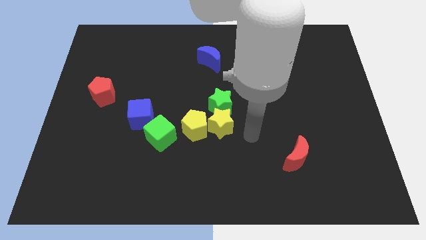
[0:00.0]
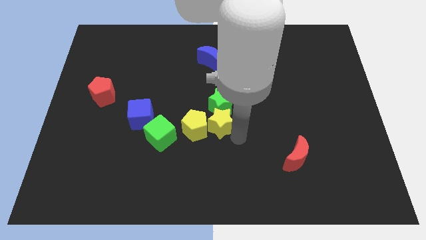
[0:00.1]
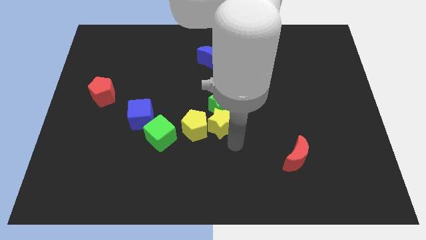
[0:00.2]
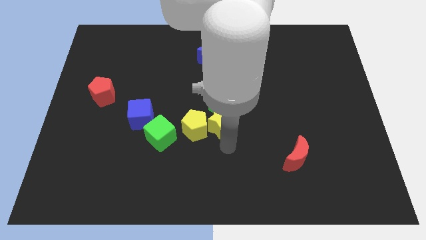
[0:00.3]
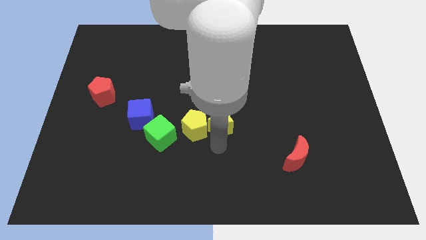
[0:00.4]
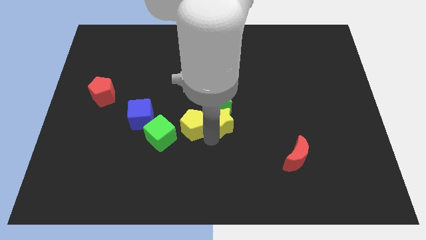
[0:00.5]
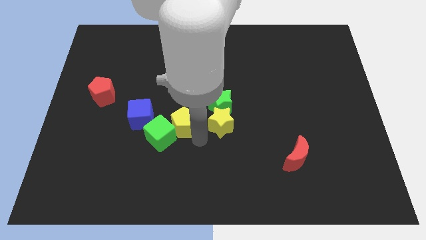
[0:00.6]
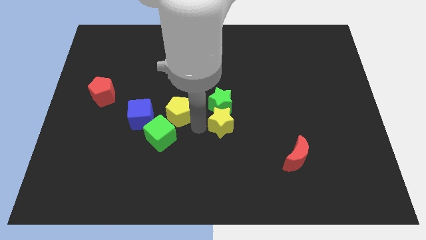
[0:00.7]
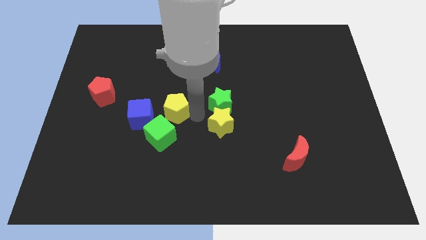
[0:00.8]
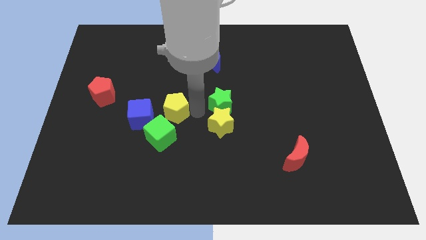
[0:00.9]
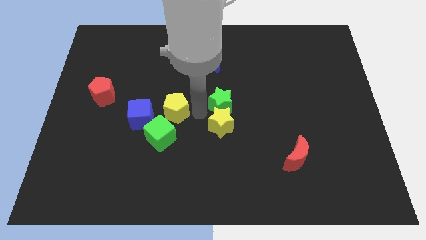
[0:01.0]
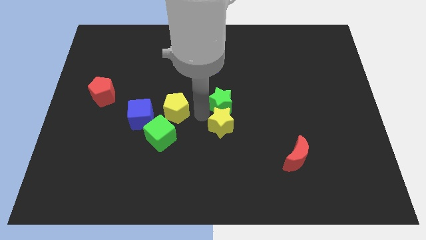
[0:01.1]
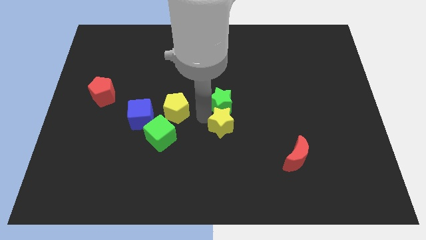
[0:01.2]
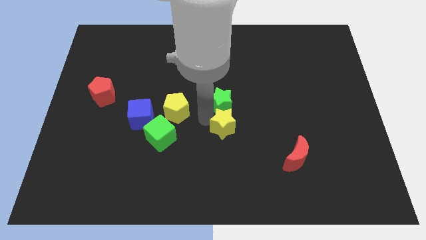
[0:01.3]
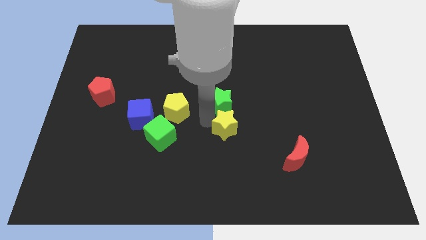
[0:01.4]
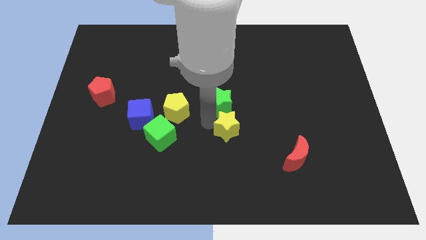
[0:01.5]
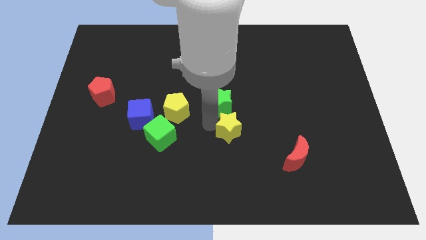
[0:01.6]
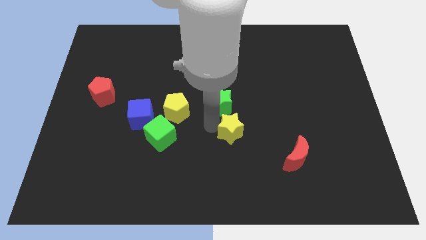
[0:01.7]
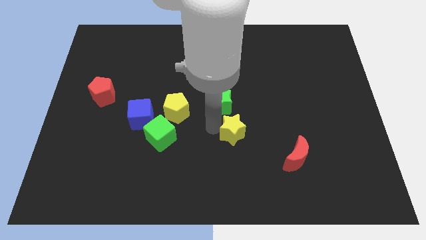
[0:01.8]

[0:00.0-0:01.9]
move the yellow star away from the green star and yellow pentagon

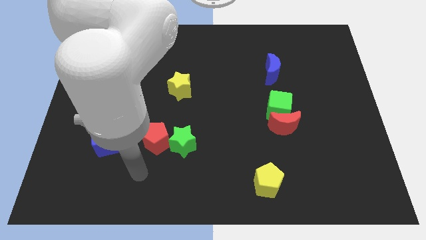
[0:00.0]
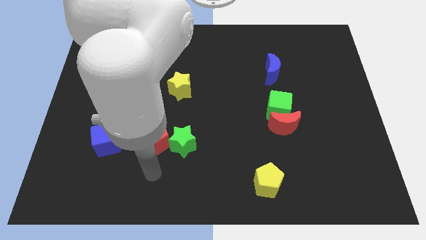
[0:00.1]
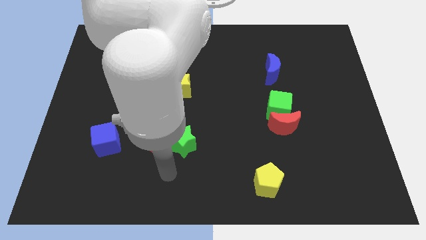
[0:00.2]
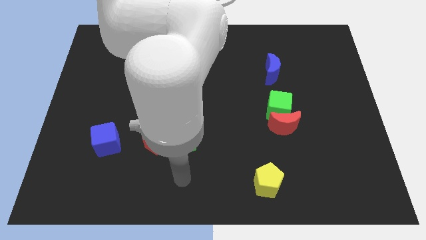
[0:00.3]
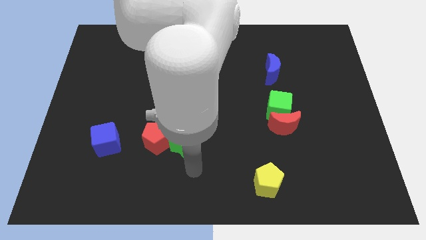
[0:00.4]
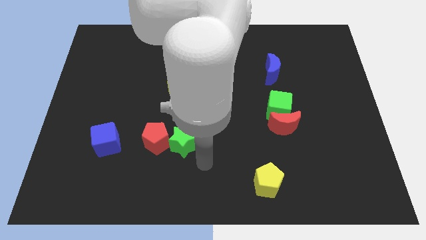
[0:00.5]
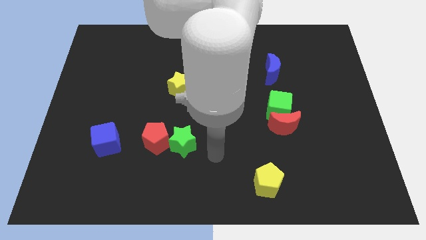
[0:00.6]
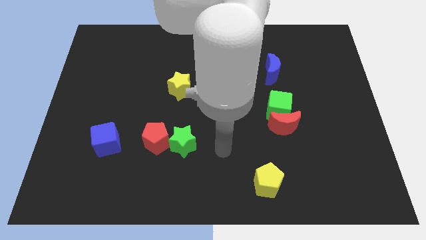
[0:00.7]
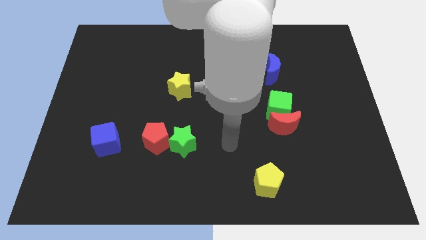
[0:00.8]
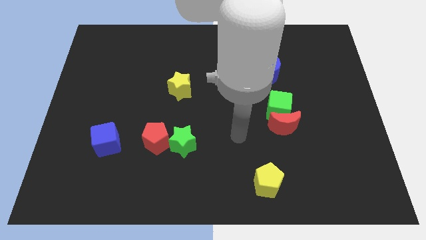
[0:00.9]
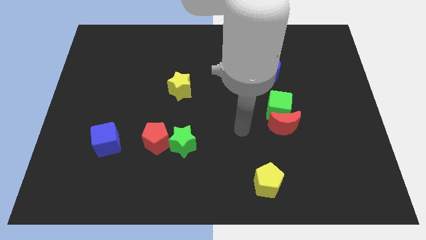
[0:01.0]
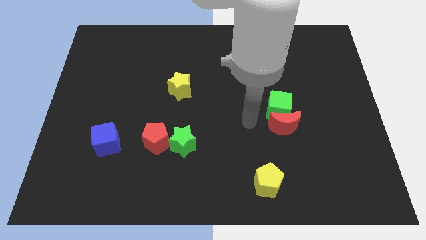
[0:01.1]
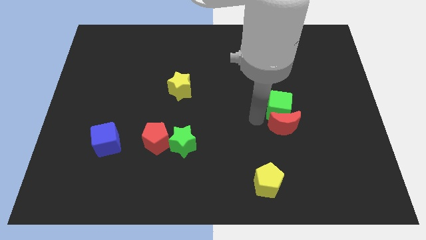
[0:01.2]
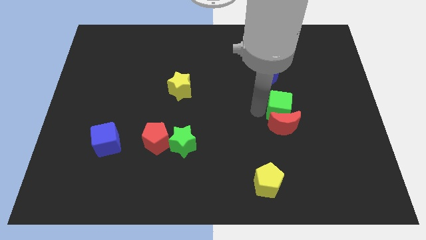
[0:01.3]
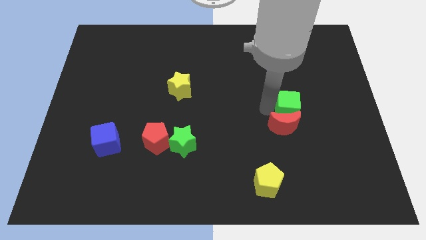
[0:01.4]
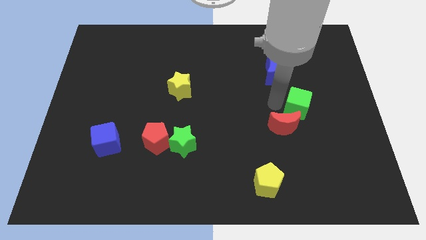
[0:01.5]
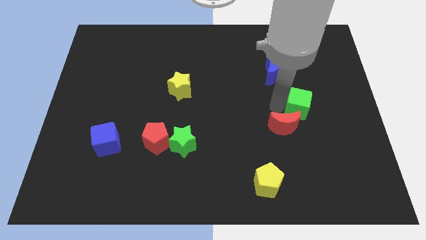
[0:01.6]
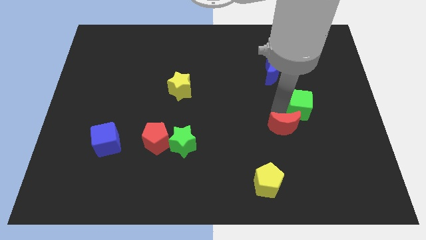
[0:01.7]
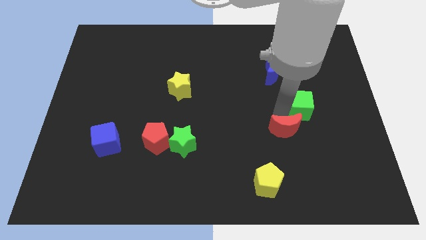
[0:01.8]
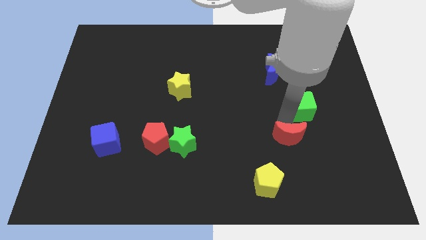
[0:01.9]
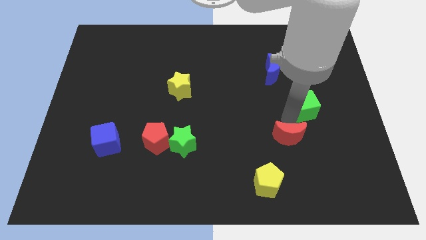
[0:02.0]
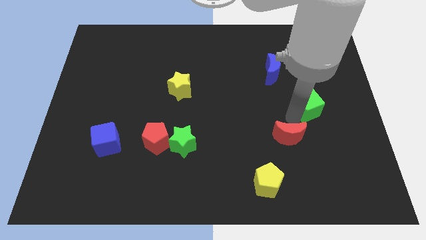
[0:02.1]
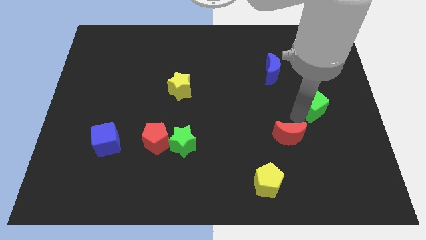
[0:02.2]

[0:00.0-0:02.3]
move the red moon away from the green cube

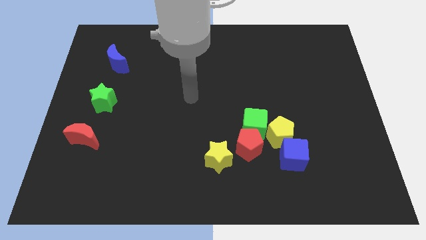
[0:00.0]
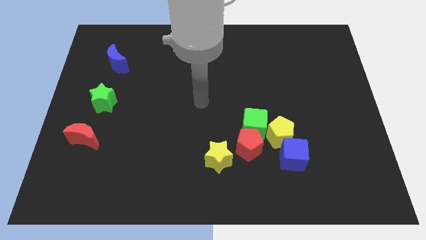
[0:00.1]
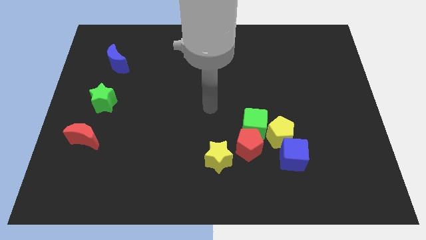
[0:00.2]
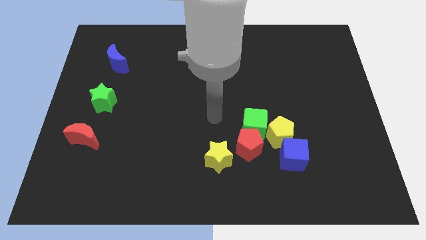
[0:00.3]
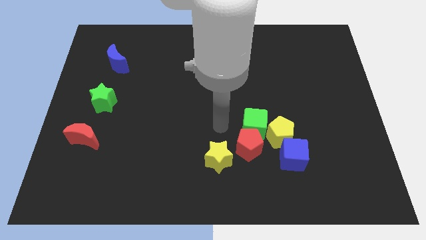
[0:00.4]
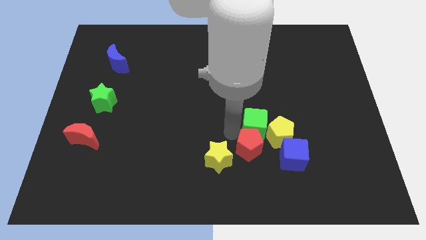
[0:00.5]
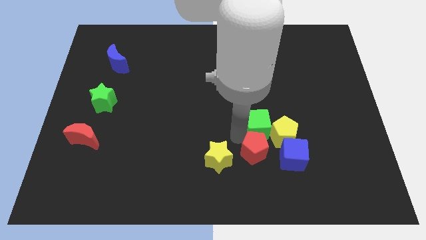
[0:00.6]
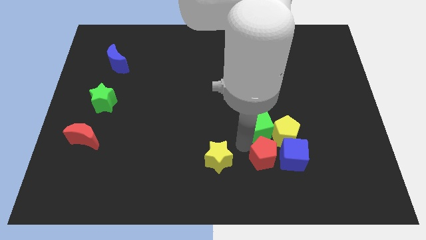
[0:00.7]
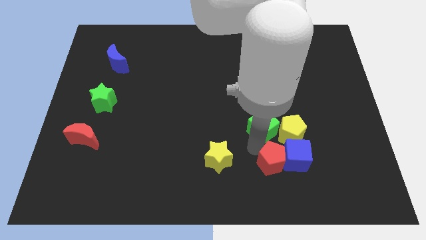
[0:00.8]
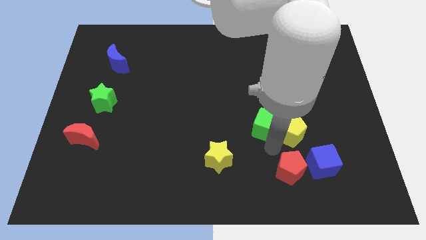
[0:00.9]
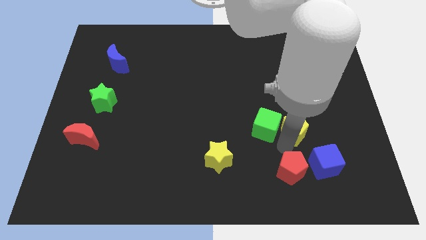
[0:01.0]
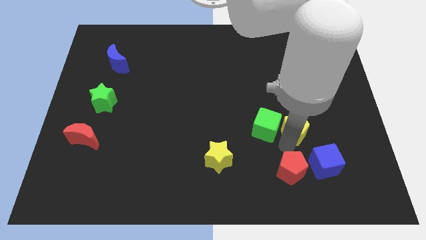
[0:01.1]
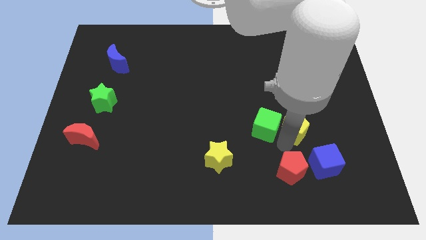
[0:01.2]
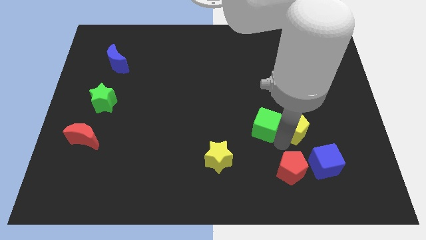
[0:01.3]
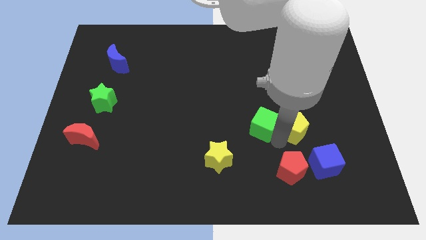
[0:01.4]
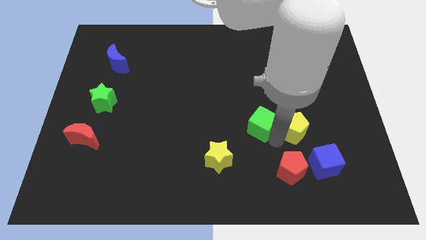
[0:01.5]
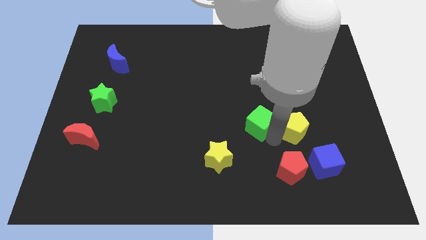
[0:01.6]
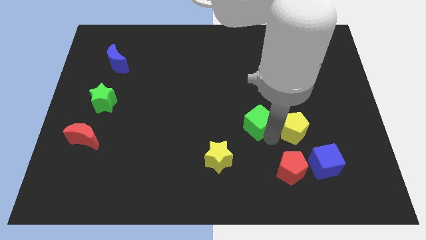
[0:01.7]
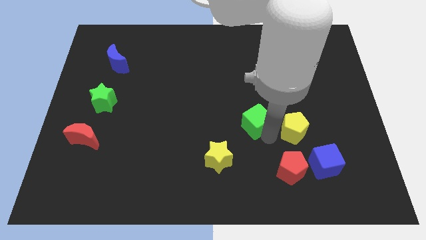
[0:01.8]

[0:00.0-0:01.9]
move the green cube away from the red pentagon and yellow pentagon

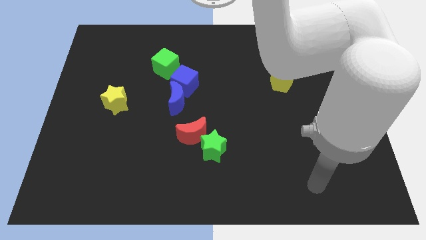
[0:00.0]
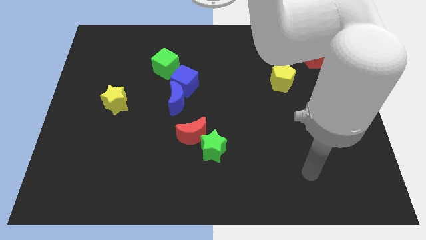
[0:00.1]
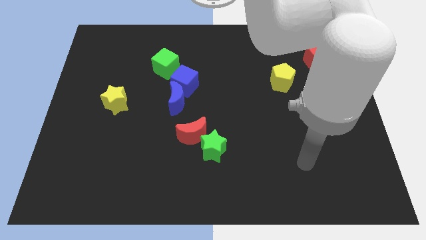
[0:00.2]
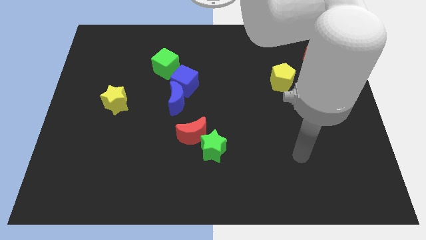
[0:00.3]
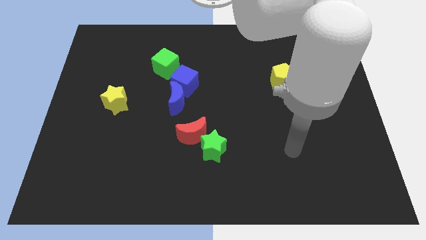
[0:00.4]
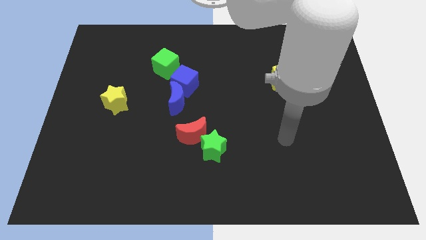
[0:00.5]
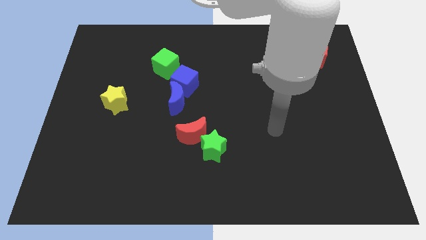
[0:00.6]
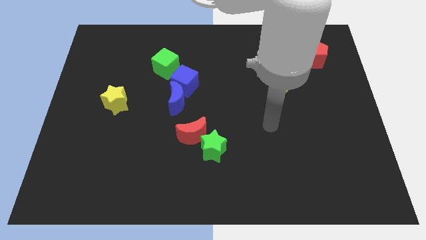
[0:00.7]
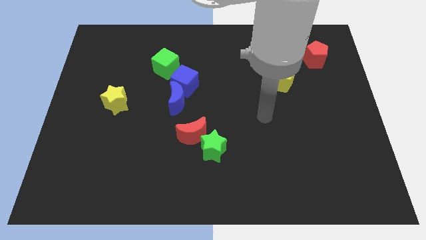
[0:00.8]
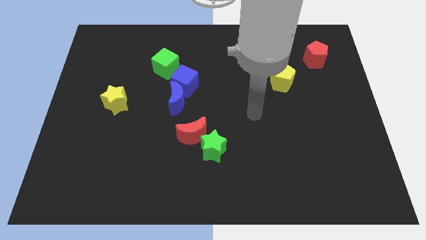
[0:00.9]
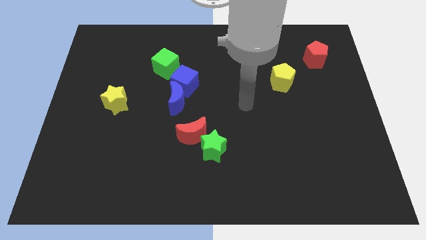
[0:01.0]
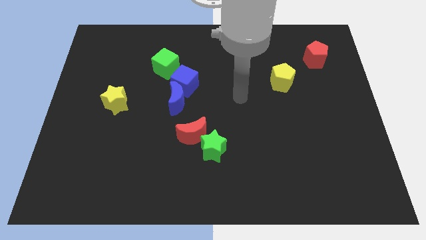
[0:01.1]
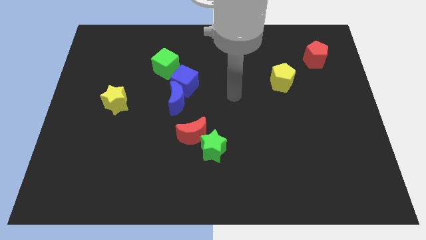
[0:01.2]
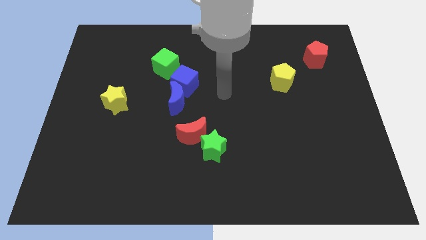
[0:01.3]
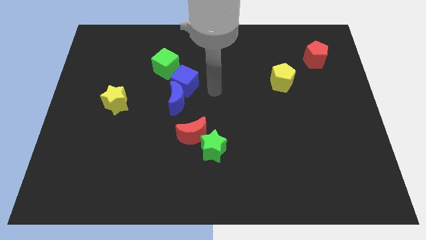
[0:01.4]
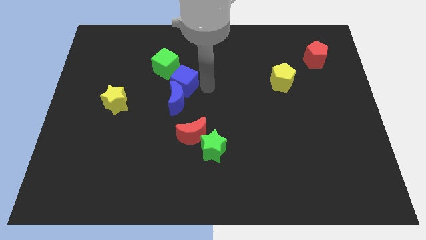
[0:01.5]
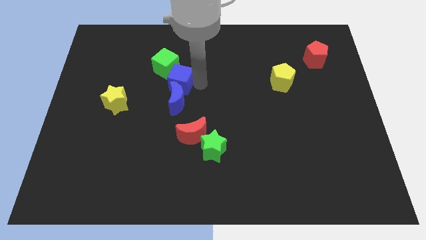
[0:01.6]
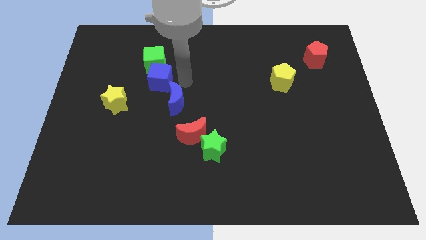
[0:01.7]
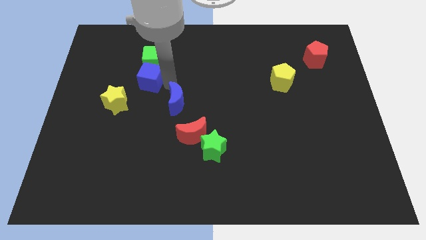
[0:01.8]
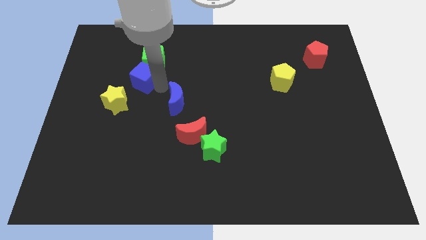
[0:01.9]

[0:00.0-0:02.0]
move the blue moon away from the blue cube

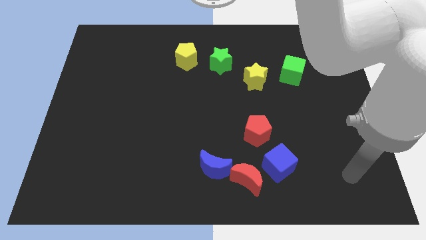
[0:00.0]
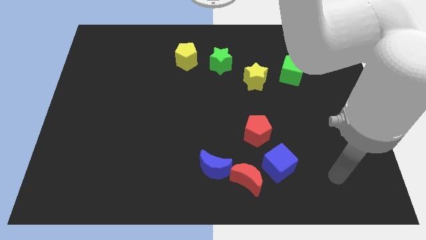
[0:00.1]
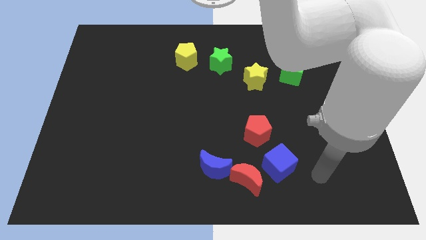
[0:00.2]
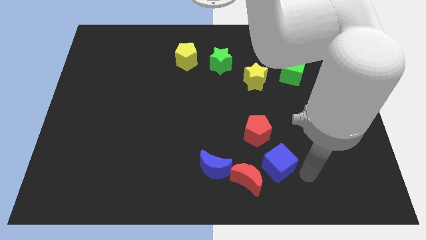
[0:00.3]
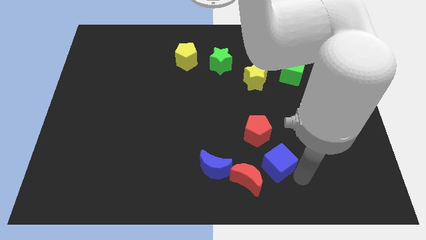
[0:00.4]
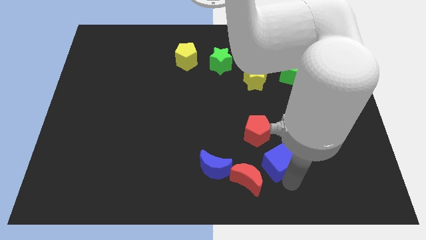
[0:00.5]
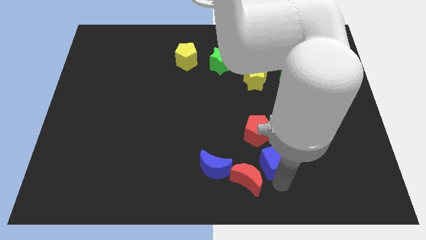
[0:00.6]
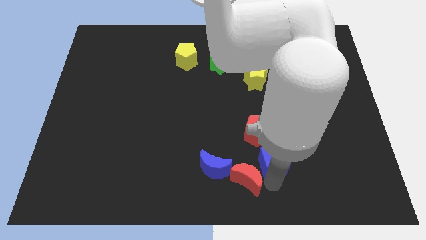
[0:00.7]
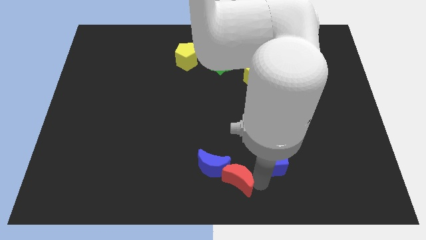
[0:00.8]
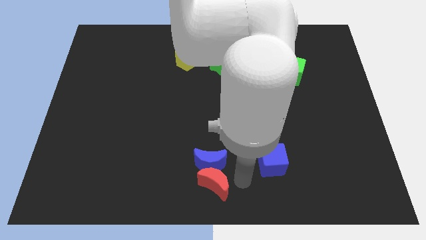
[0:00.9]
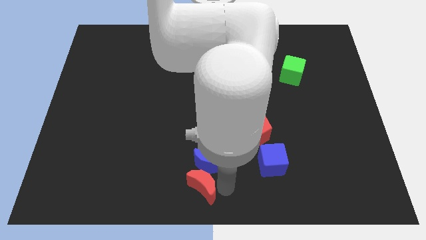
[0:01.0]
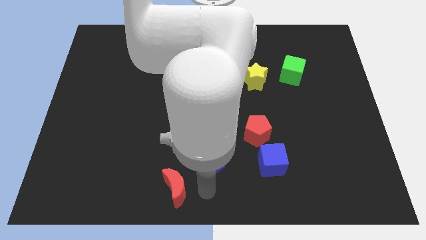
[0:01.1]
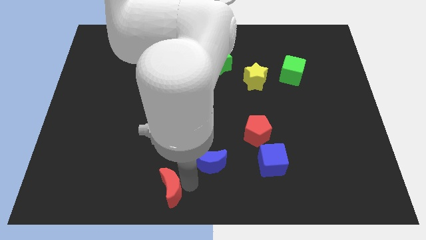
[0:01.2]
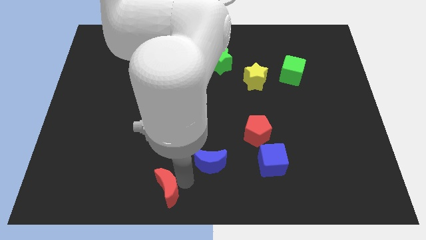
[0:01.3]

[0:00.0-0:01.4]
pull the blue moon apart from the red moon
